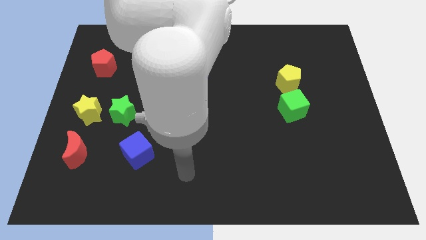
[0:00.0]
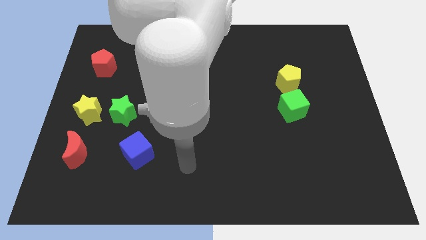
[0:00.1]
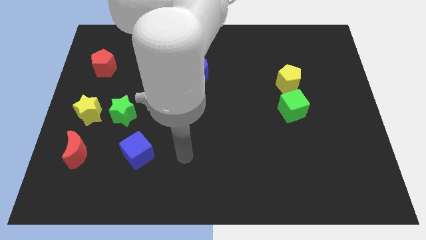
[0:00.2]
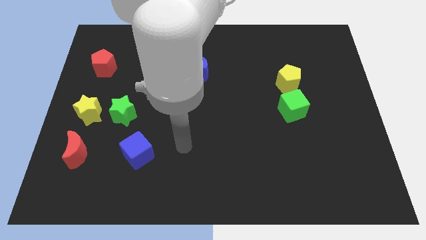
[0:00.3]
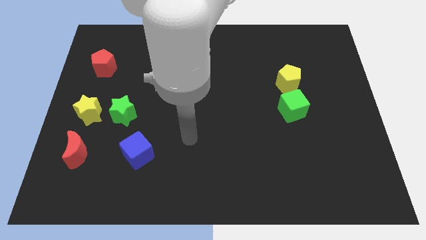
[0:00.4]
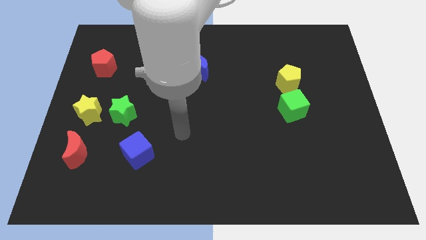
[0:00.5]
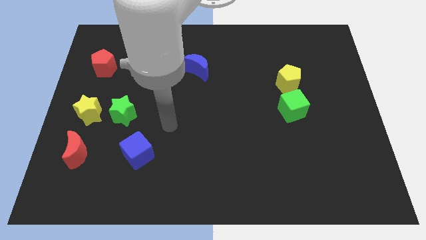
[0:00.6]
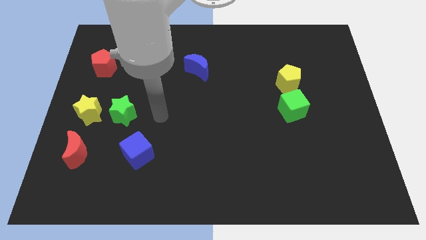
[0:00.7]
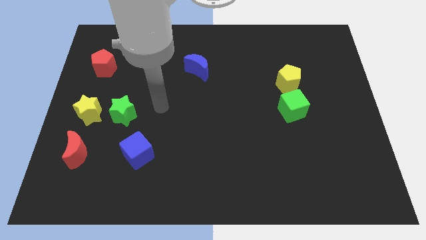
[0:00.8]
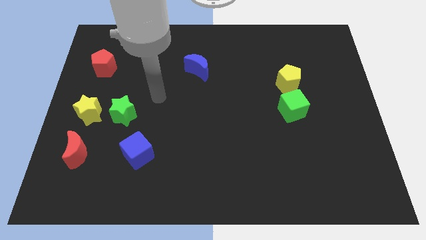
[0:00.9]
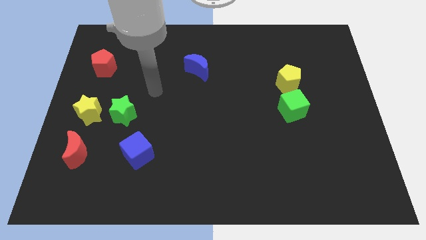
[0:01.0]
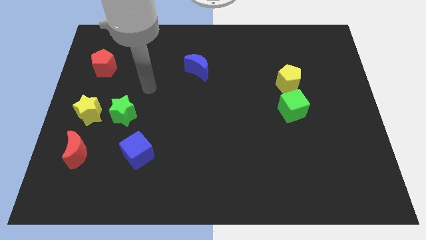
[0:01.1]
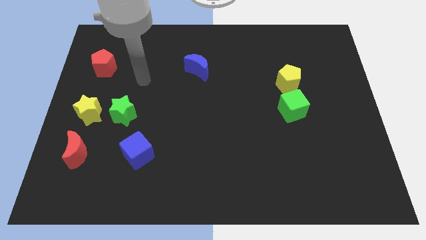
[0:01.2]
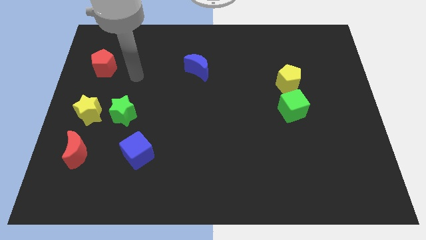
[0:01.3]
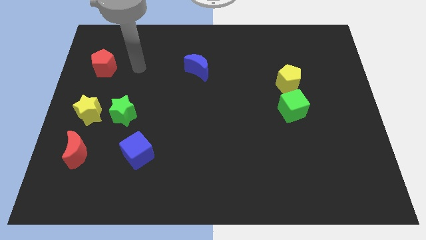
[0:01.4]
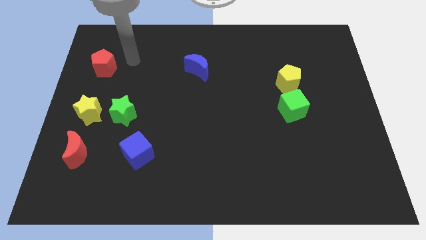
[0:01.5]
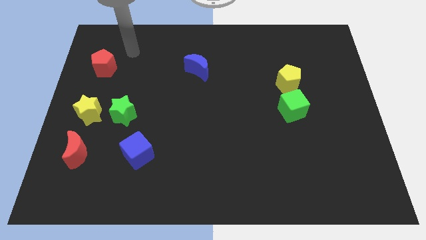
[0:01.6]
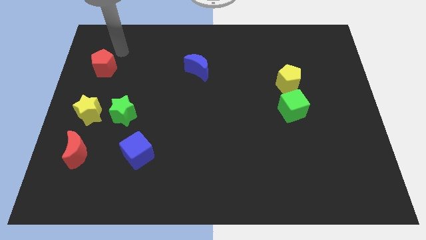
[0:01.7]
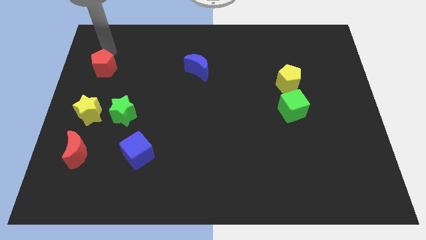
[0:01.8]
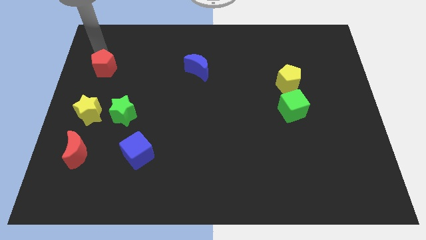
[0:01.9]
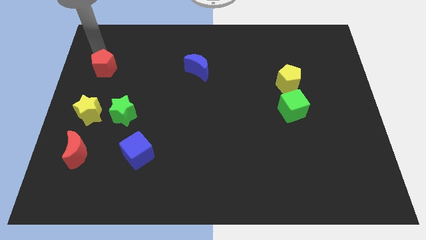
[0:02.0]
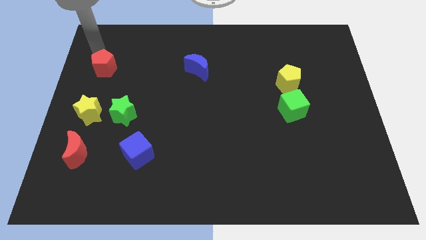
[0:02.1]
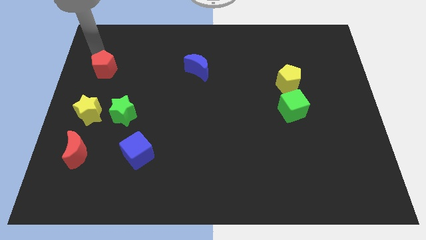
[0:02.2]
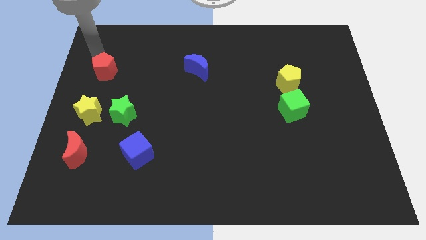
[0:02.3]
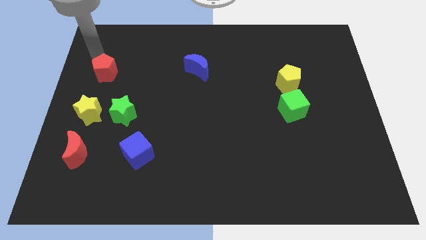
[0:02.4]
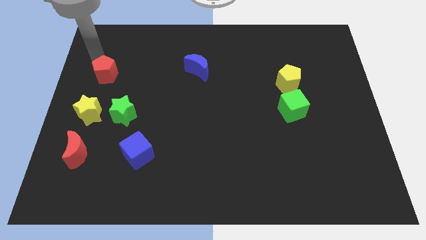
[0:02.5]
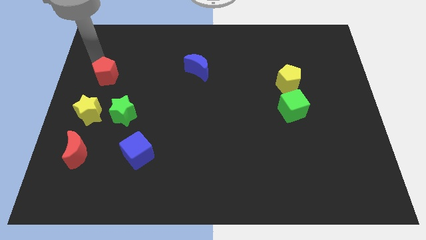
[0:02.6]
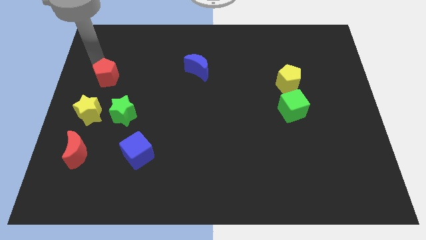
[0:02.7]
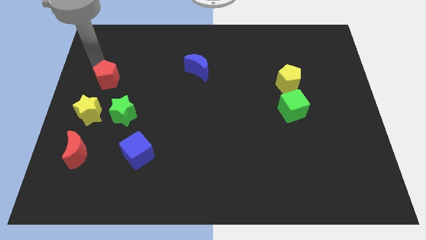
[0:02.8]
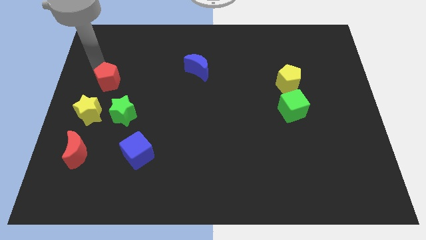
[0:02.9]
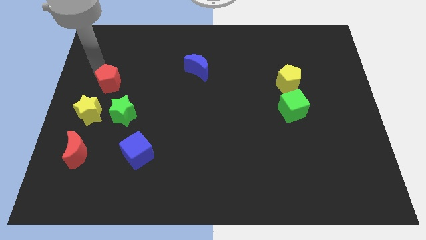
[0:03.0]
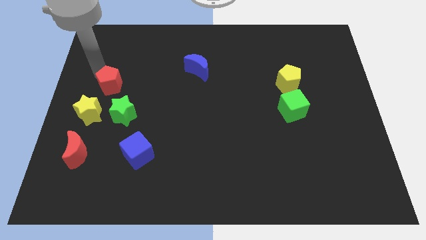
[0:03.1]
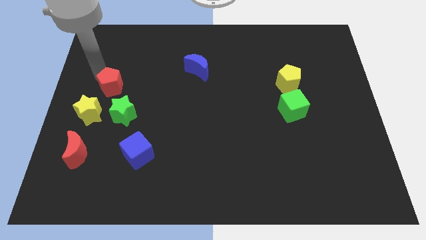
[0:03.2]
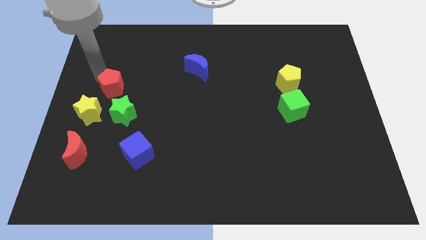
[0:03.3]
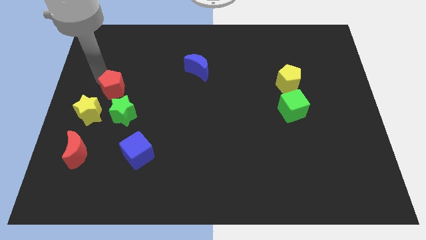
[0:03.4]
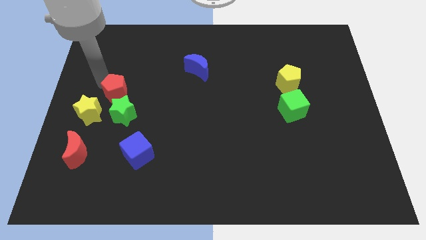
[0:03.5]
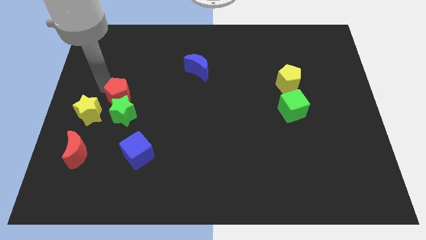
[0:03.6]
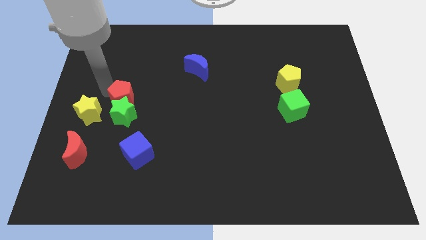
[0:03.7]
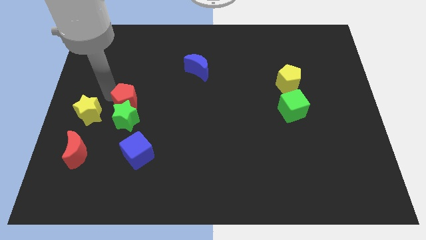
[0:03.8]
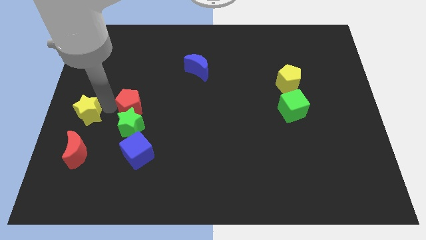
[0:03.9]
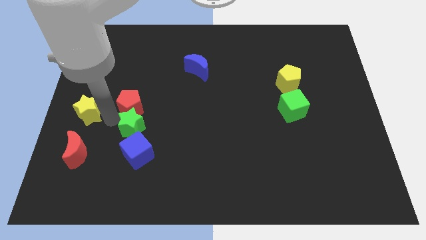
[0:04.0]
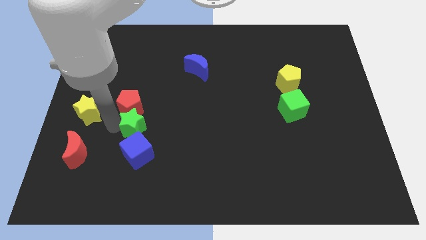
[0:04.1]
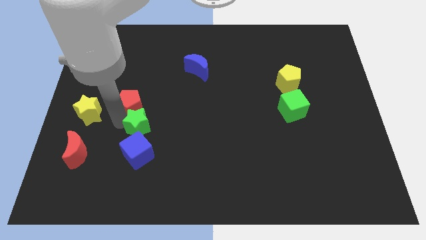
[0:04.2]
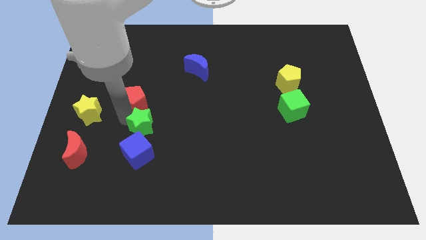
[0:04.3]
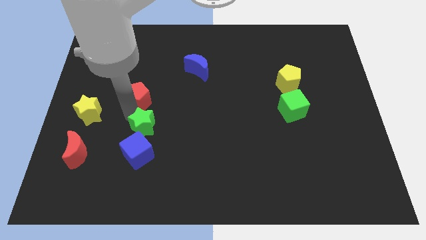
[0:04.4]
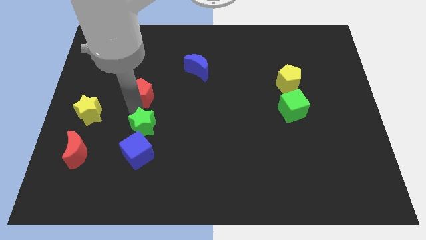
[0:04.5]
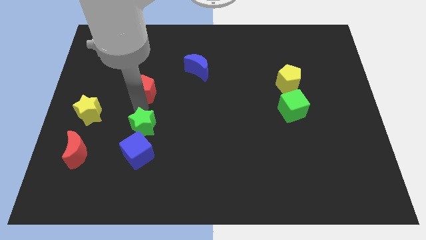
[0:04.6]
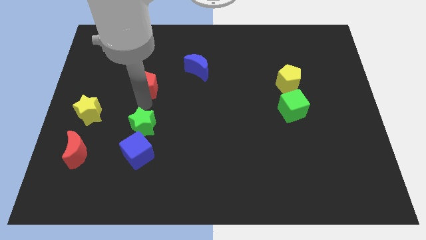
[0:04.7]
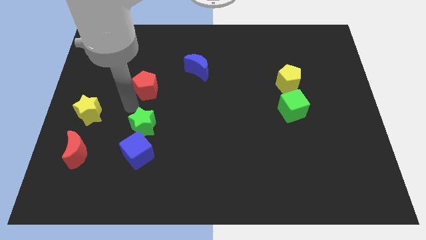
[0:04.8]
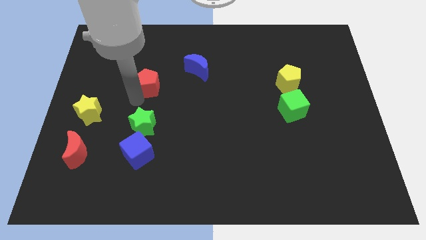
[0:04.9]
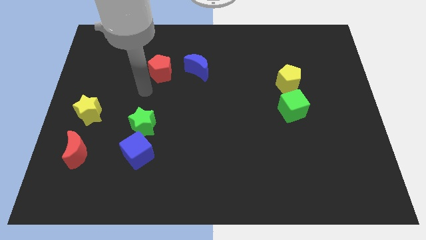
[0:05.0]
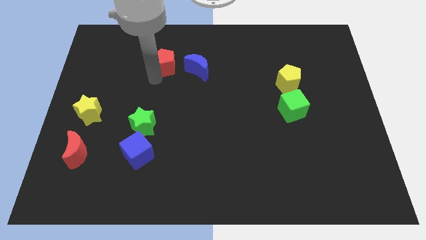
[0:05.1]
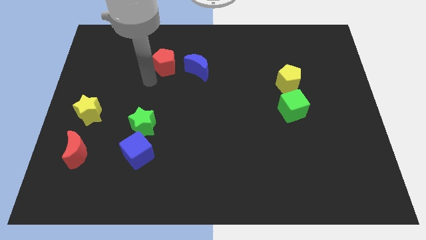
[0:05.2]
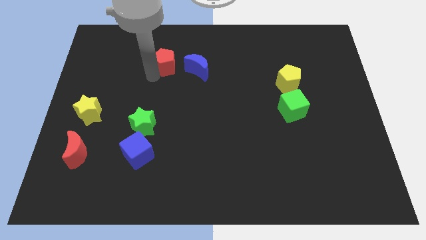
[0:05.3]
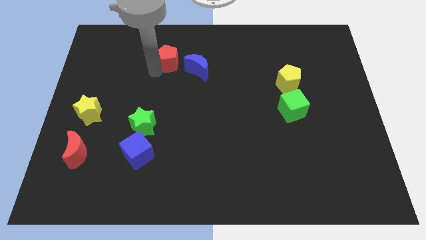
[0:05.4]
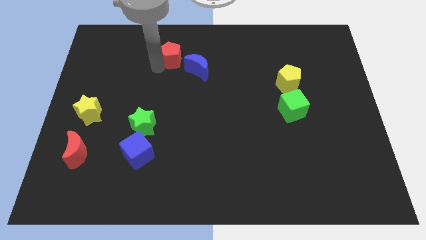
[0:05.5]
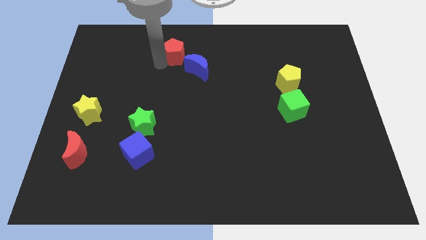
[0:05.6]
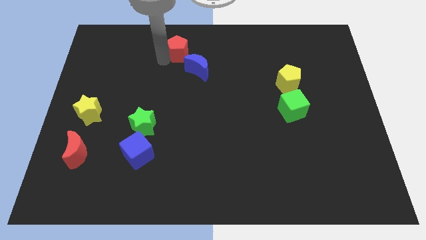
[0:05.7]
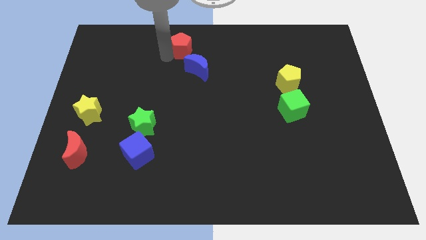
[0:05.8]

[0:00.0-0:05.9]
push the red pentagon to the top side
